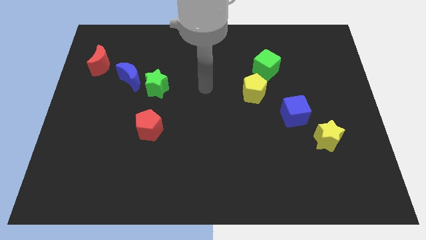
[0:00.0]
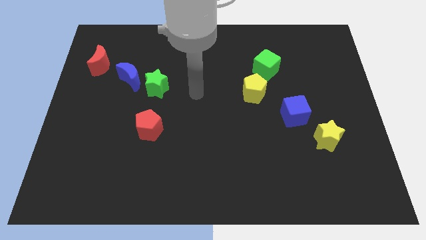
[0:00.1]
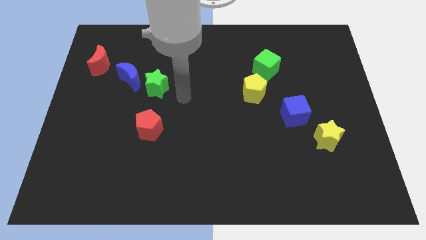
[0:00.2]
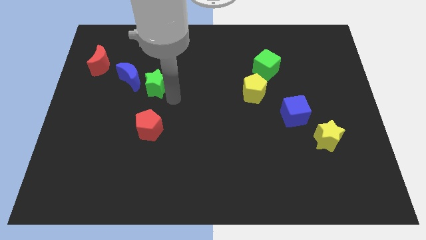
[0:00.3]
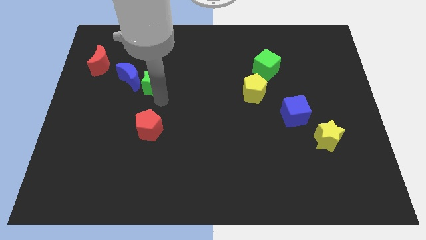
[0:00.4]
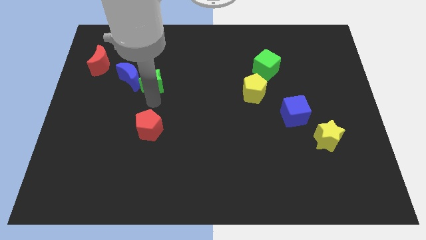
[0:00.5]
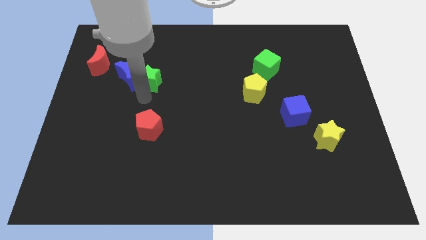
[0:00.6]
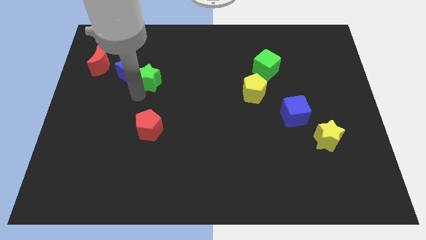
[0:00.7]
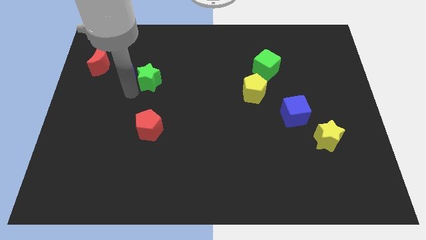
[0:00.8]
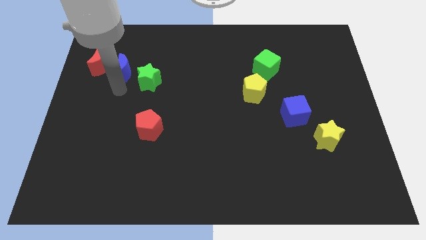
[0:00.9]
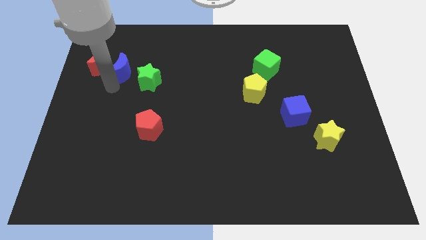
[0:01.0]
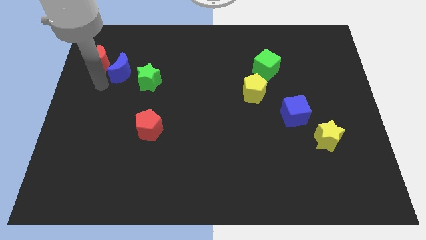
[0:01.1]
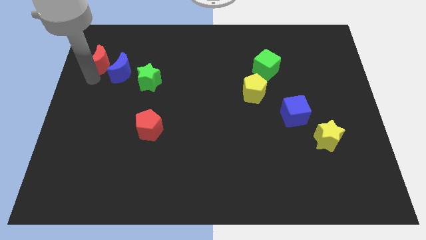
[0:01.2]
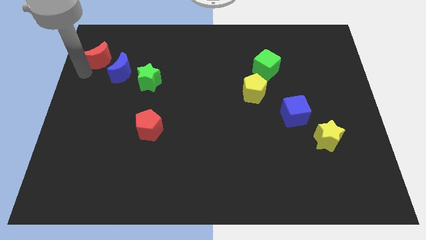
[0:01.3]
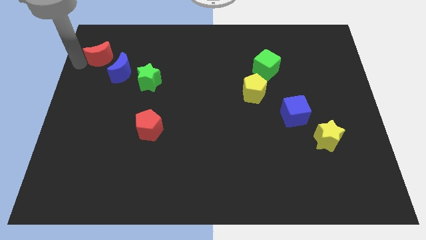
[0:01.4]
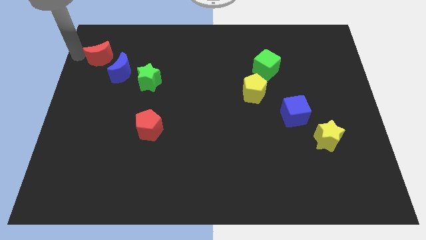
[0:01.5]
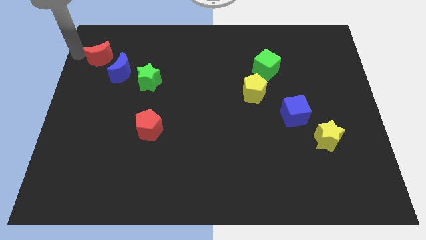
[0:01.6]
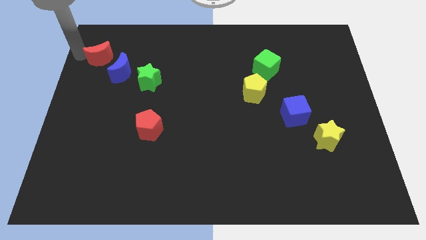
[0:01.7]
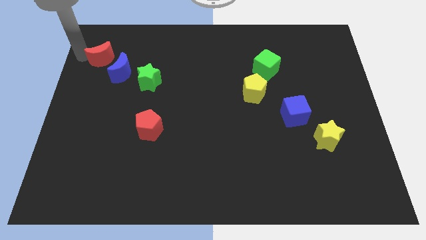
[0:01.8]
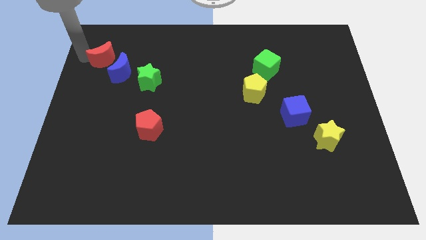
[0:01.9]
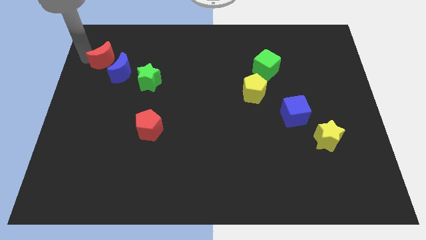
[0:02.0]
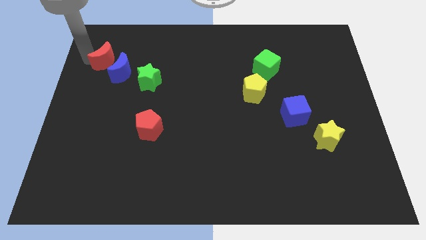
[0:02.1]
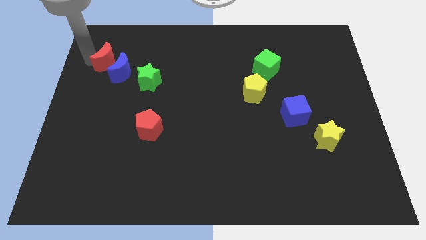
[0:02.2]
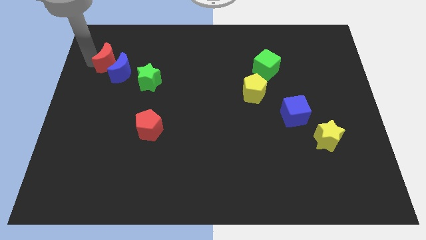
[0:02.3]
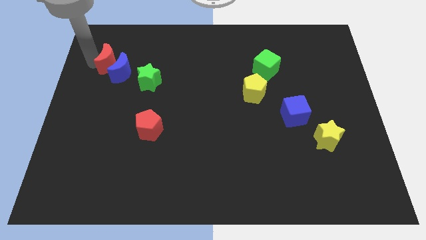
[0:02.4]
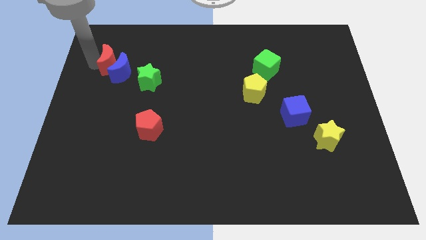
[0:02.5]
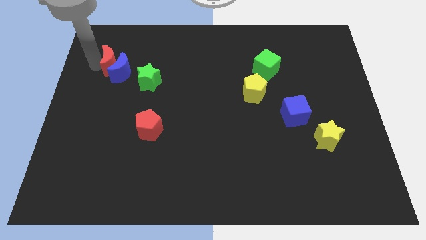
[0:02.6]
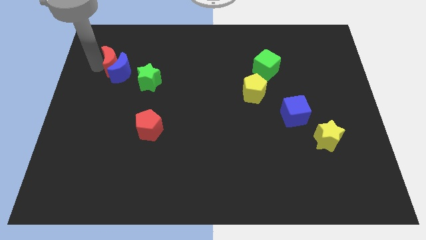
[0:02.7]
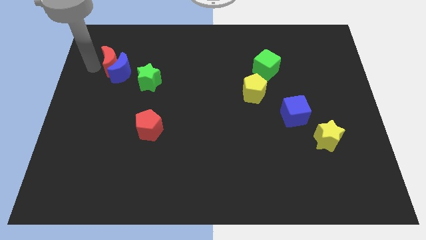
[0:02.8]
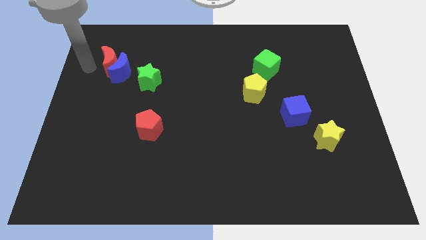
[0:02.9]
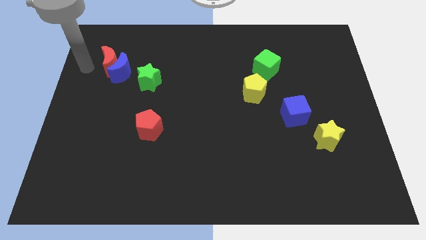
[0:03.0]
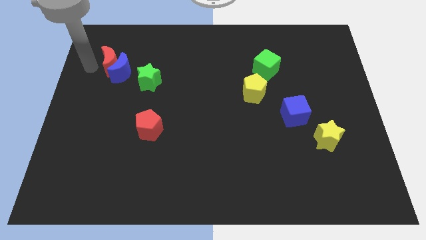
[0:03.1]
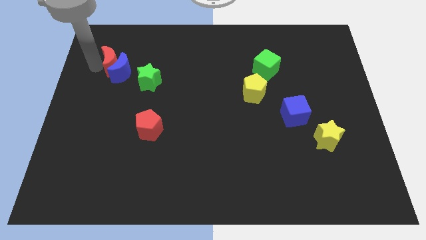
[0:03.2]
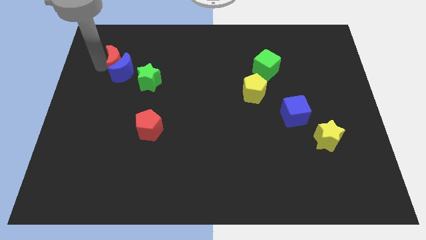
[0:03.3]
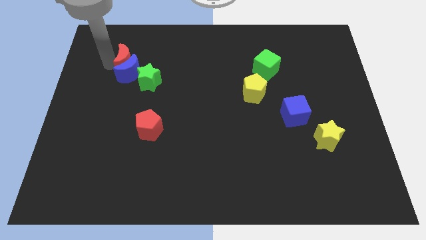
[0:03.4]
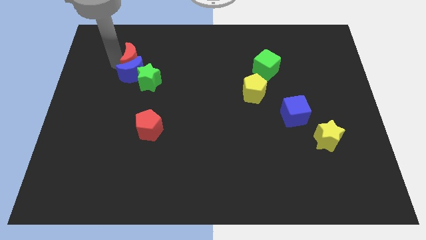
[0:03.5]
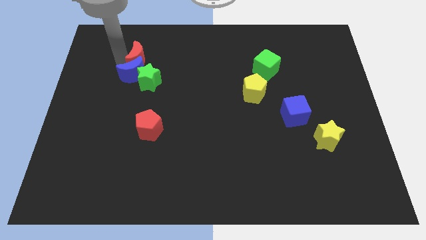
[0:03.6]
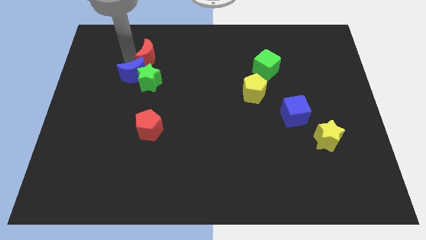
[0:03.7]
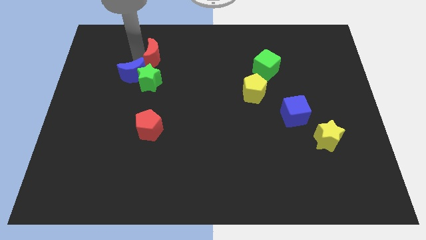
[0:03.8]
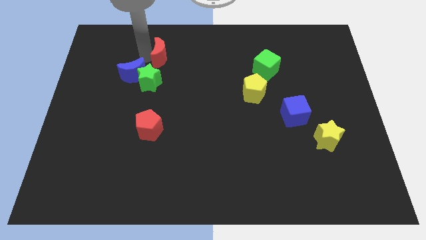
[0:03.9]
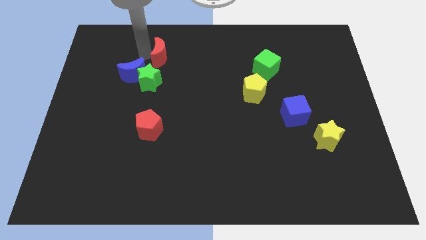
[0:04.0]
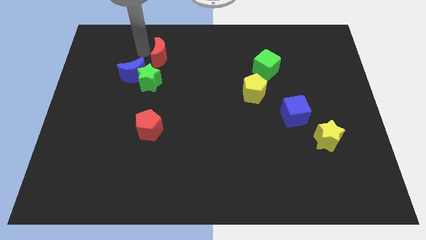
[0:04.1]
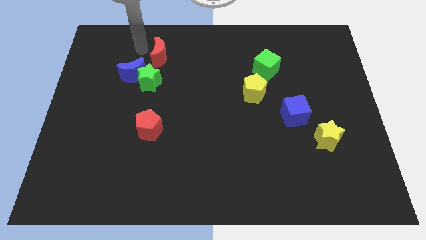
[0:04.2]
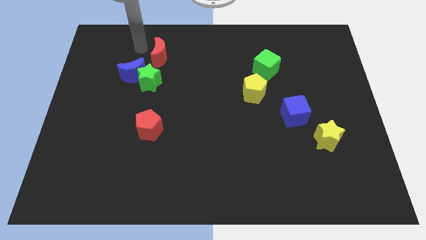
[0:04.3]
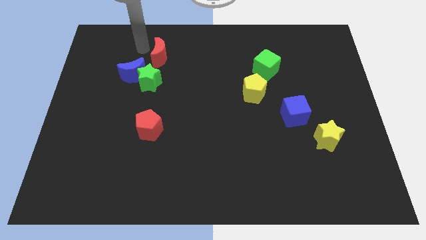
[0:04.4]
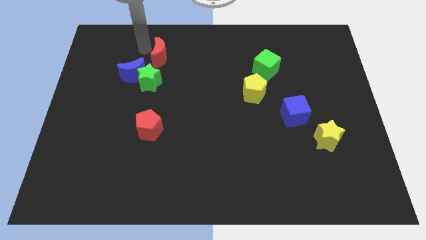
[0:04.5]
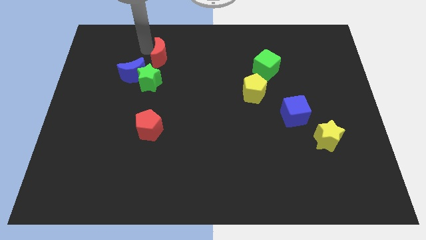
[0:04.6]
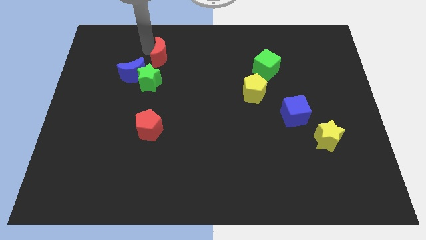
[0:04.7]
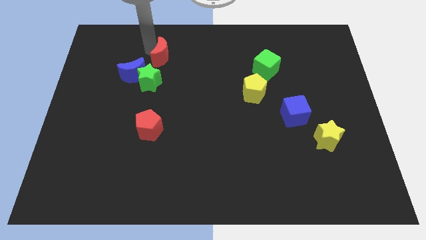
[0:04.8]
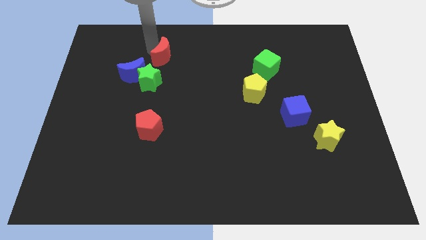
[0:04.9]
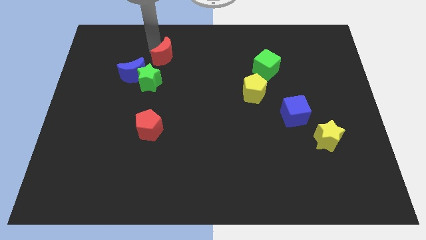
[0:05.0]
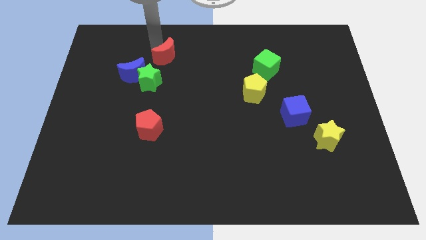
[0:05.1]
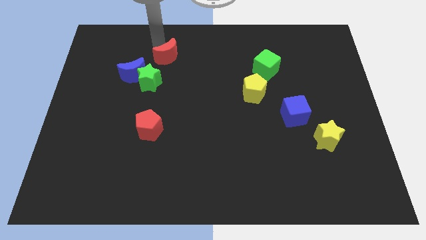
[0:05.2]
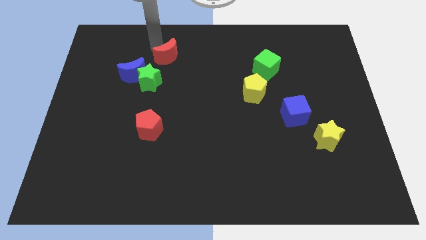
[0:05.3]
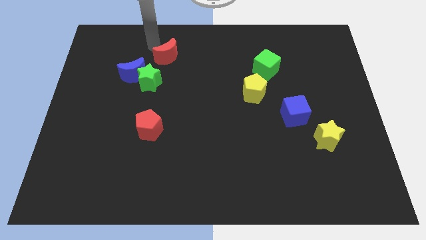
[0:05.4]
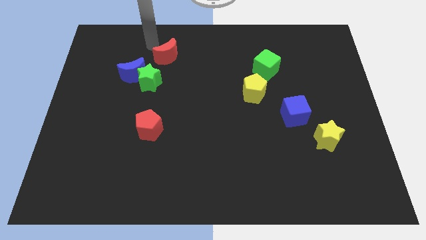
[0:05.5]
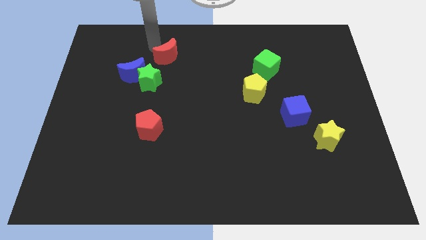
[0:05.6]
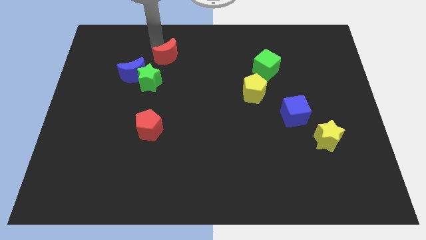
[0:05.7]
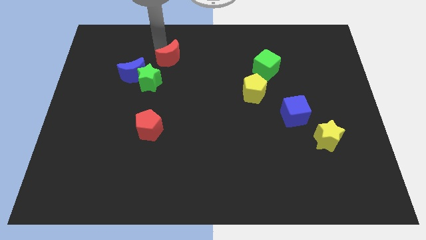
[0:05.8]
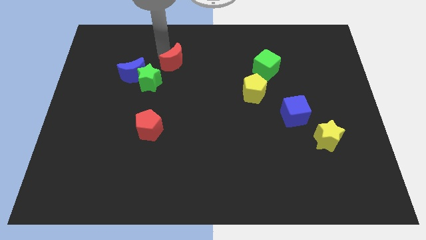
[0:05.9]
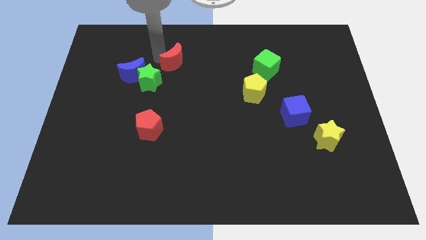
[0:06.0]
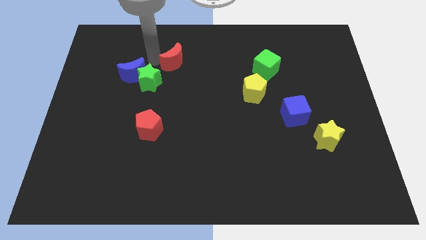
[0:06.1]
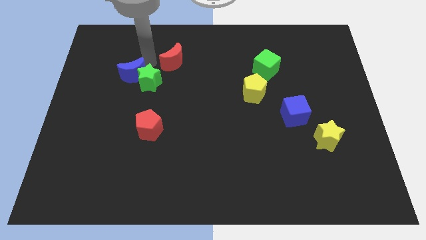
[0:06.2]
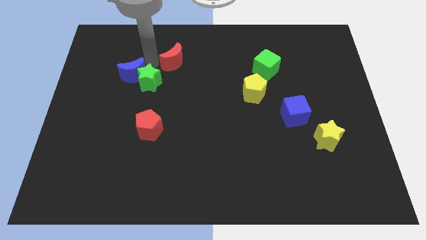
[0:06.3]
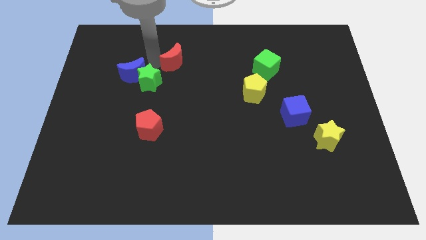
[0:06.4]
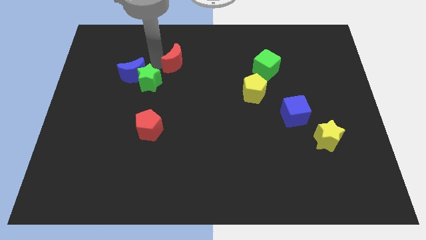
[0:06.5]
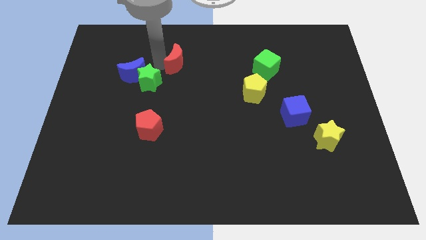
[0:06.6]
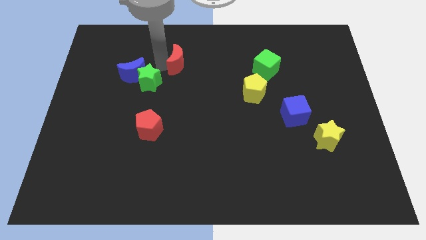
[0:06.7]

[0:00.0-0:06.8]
move the red moon right

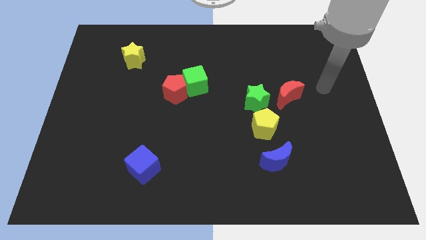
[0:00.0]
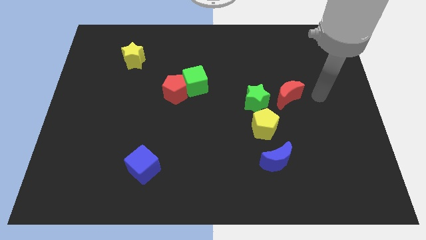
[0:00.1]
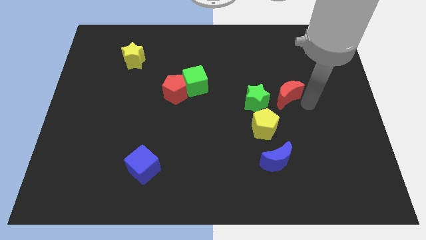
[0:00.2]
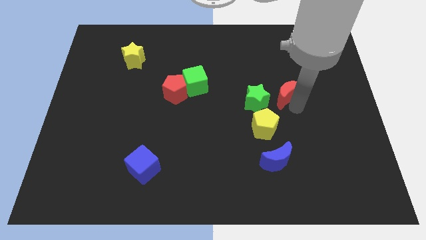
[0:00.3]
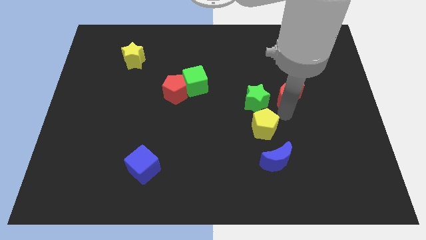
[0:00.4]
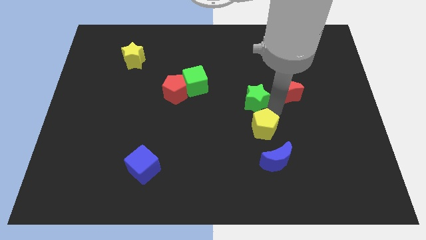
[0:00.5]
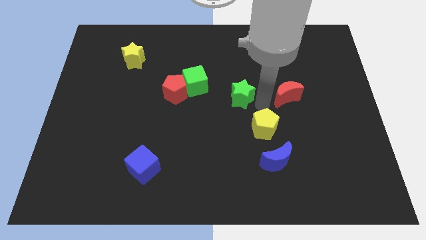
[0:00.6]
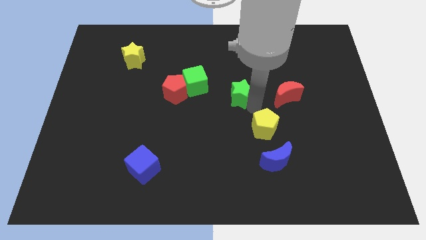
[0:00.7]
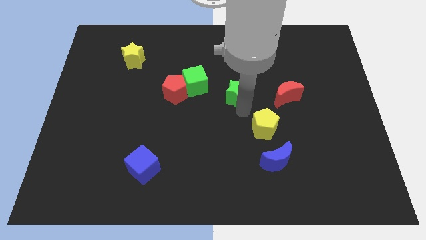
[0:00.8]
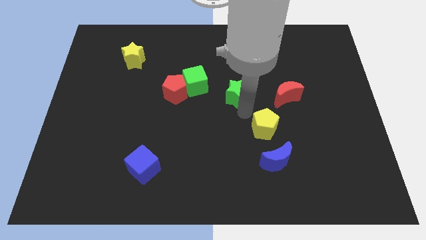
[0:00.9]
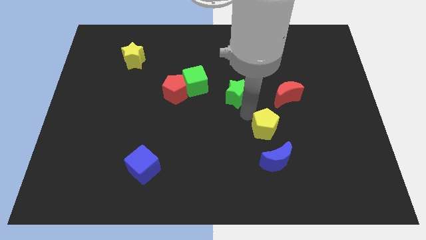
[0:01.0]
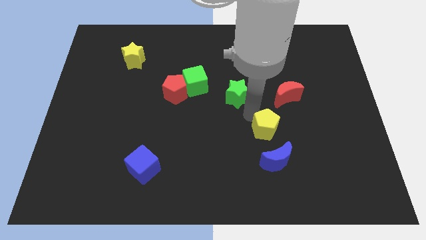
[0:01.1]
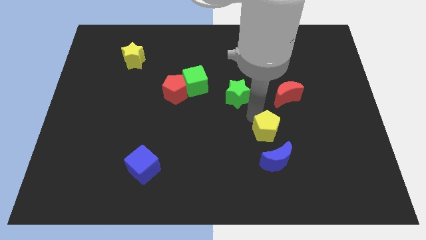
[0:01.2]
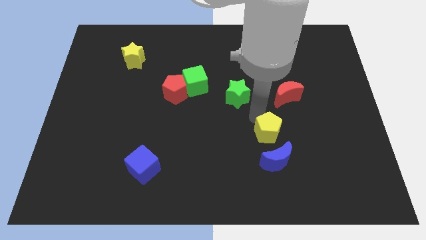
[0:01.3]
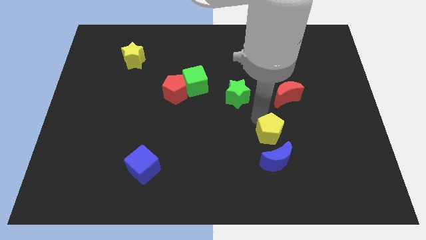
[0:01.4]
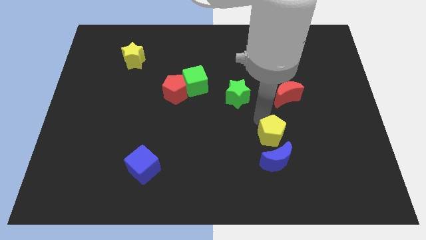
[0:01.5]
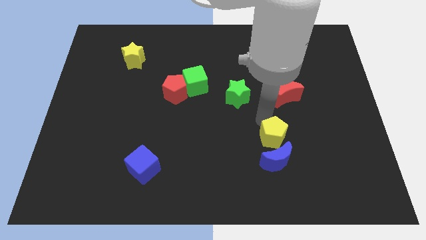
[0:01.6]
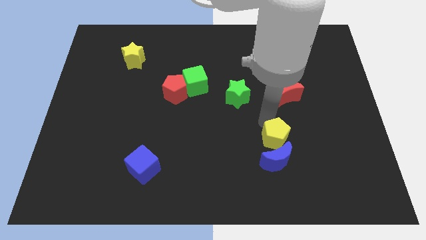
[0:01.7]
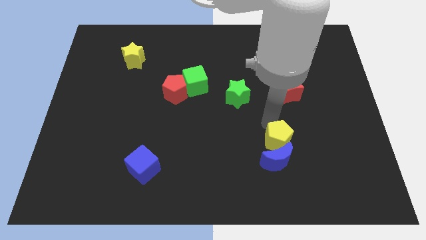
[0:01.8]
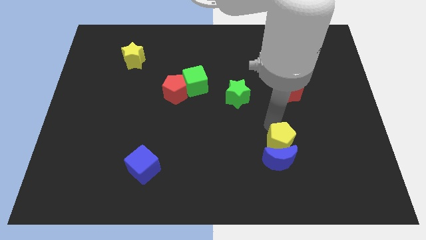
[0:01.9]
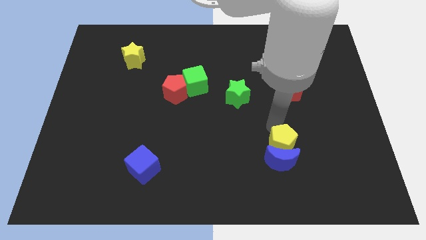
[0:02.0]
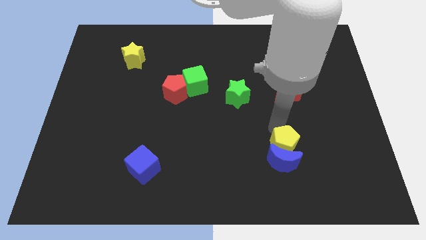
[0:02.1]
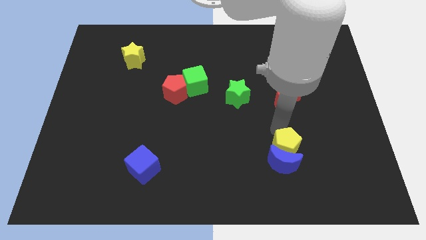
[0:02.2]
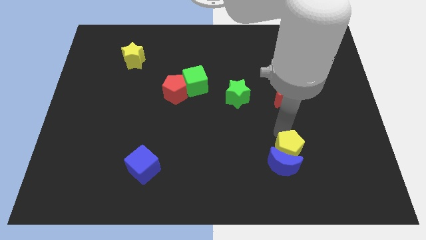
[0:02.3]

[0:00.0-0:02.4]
slightly slide the yellow pentagon diagonally down and right
